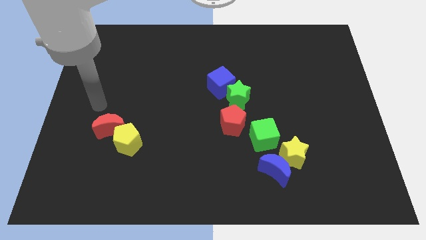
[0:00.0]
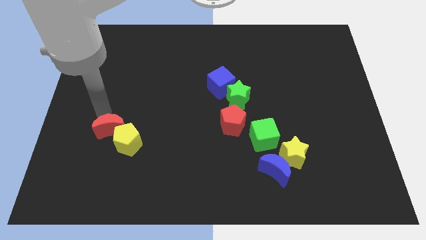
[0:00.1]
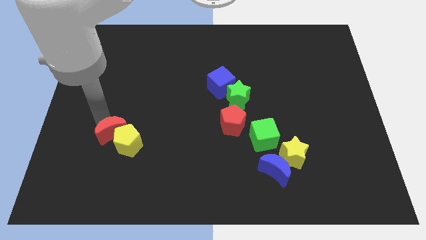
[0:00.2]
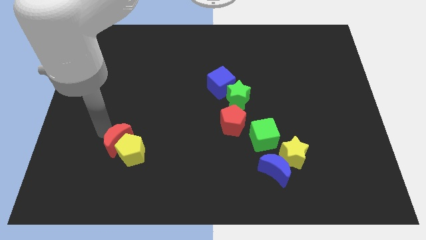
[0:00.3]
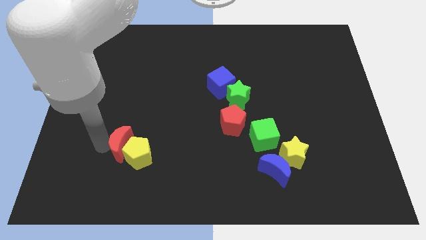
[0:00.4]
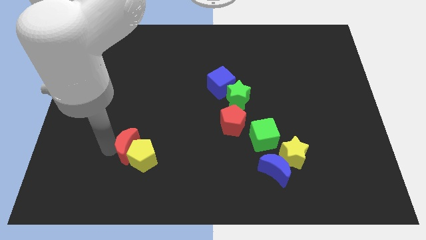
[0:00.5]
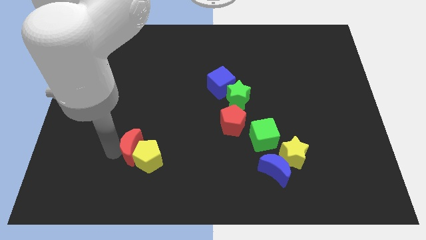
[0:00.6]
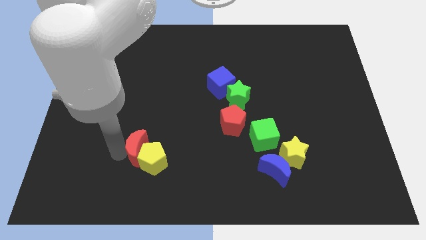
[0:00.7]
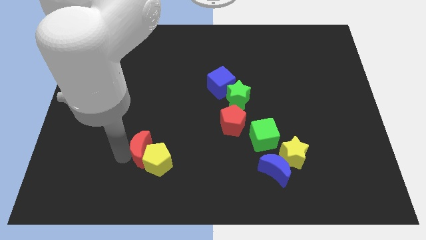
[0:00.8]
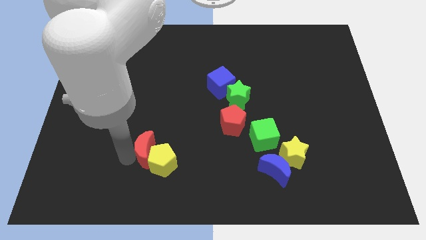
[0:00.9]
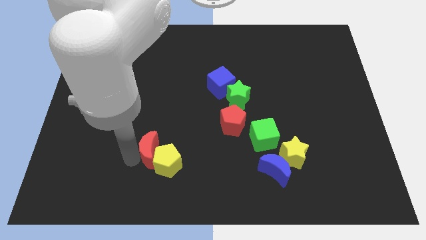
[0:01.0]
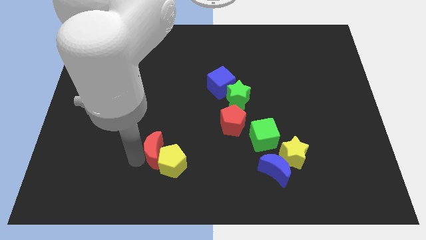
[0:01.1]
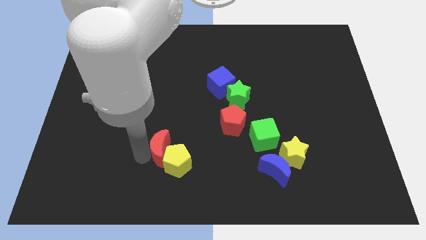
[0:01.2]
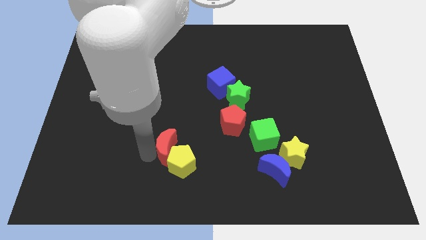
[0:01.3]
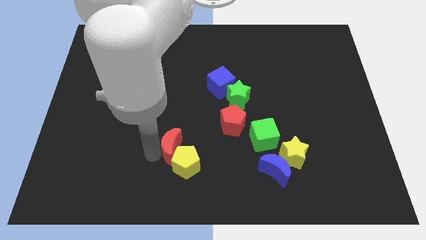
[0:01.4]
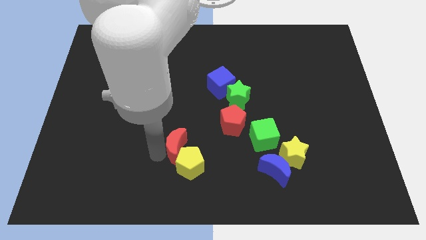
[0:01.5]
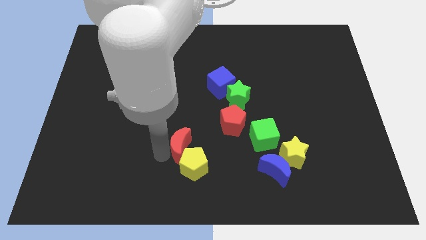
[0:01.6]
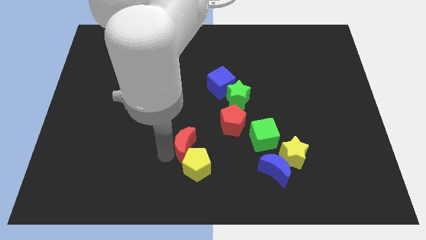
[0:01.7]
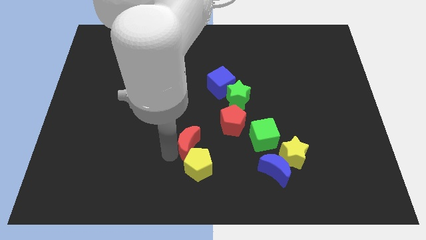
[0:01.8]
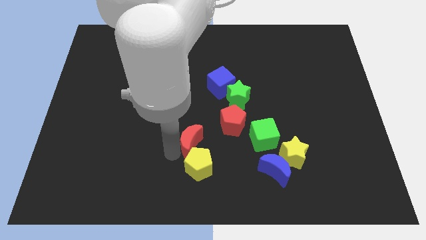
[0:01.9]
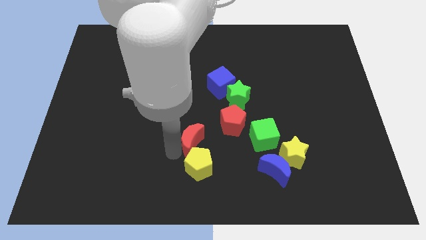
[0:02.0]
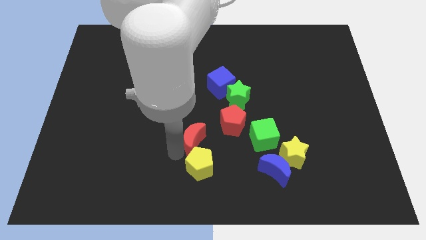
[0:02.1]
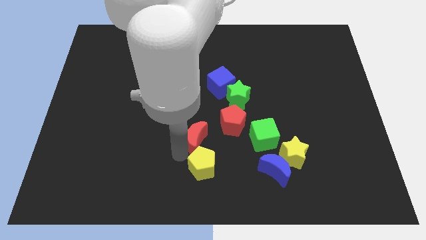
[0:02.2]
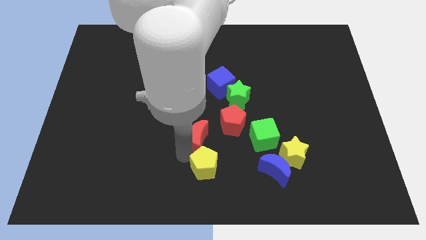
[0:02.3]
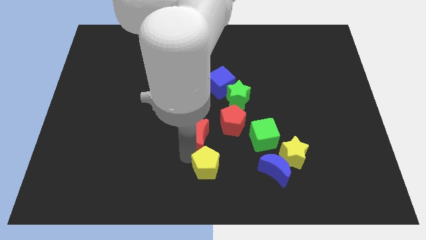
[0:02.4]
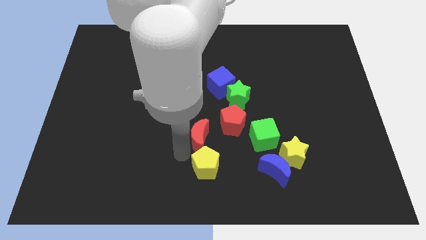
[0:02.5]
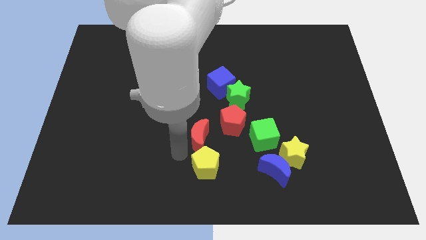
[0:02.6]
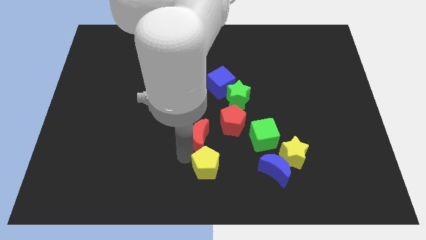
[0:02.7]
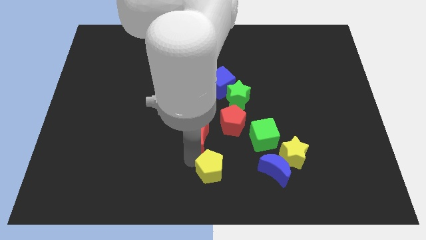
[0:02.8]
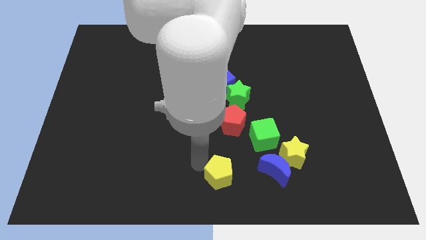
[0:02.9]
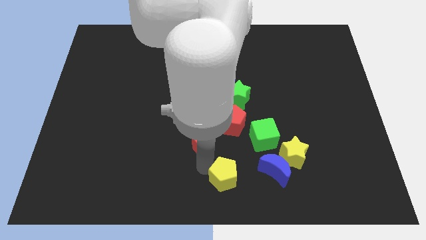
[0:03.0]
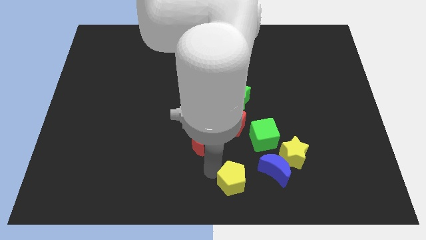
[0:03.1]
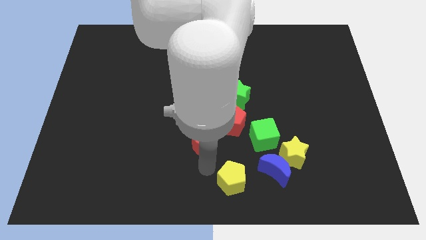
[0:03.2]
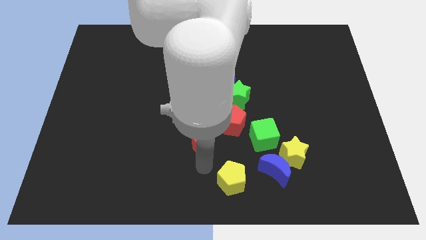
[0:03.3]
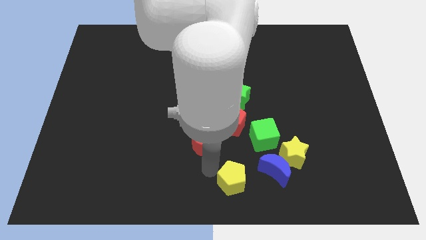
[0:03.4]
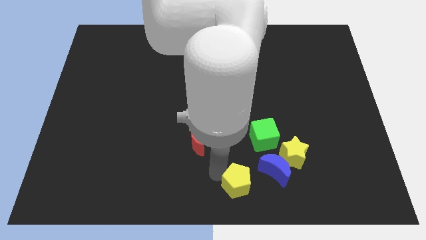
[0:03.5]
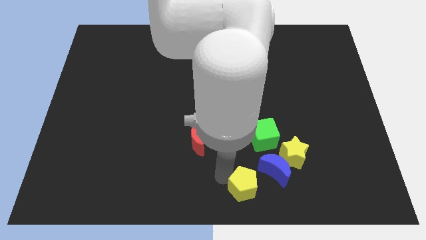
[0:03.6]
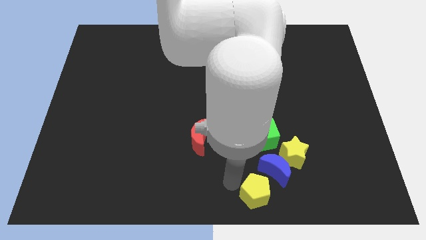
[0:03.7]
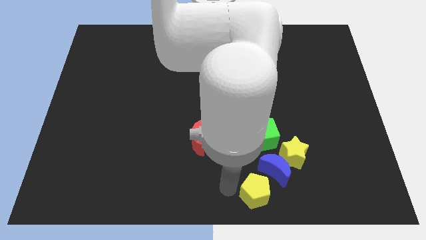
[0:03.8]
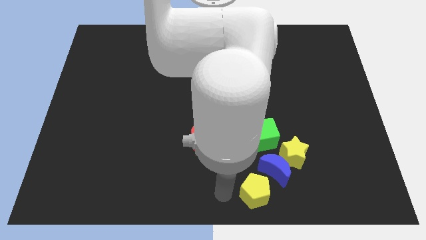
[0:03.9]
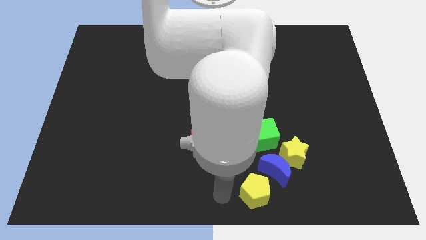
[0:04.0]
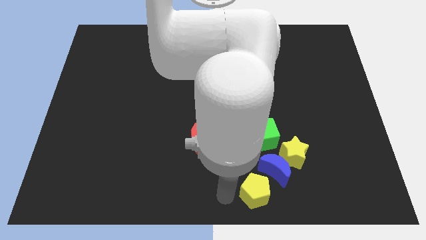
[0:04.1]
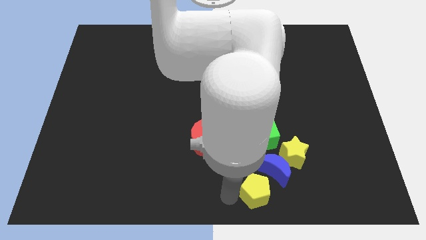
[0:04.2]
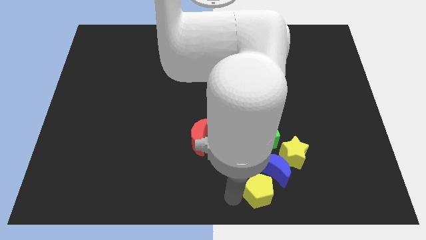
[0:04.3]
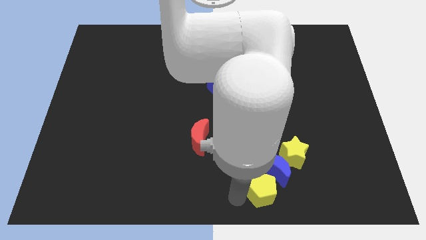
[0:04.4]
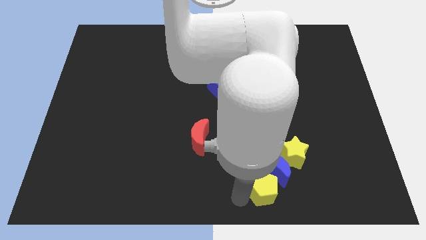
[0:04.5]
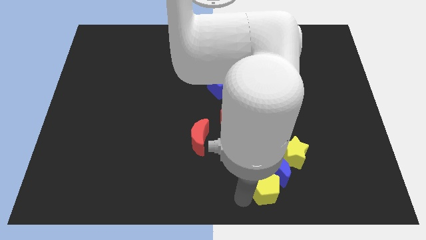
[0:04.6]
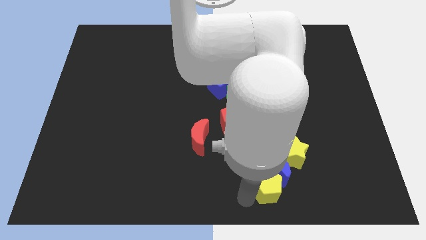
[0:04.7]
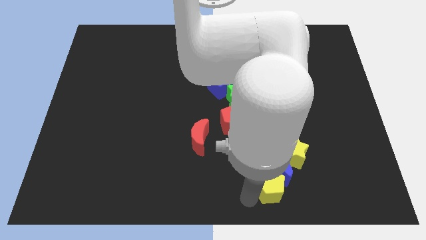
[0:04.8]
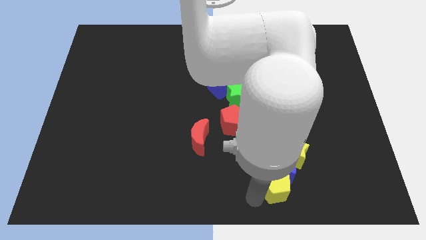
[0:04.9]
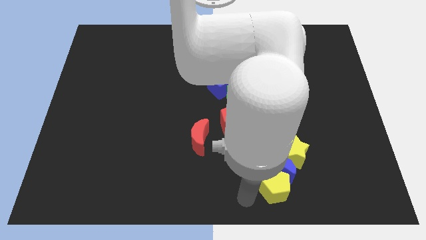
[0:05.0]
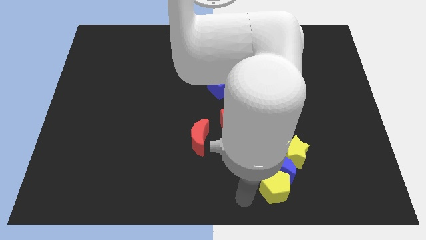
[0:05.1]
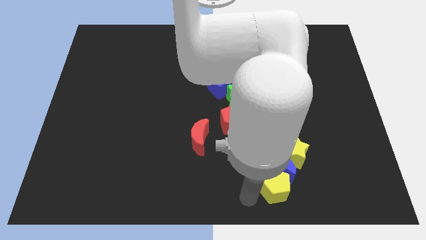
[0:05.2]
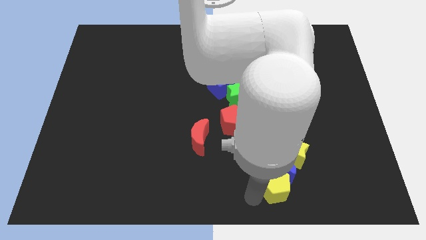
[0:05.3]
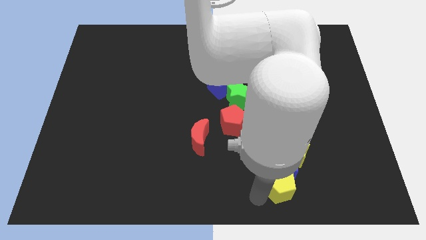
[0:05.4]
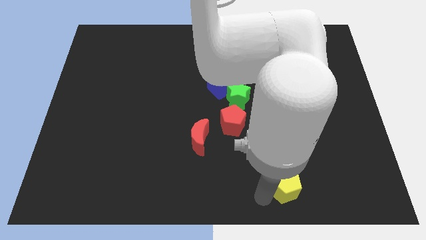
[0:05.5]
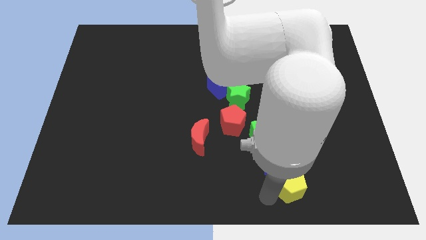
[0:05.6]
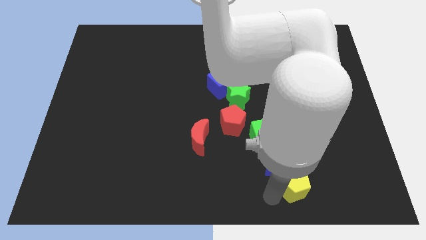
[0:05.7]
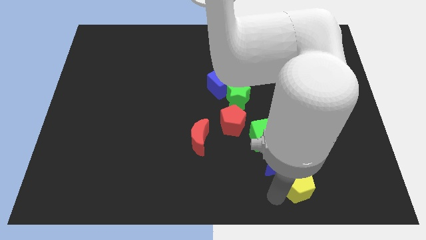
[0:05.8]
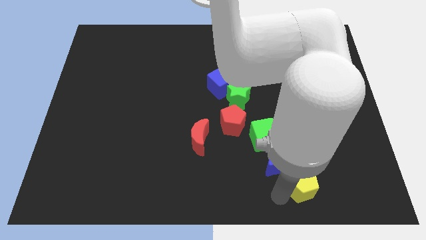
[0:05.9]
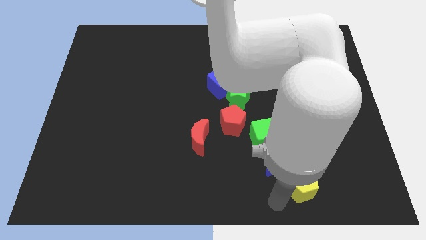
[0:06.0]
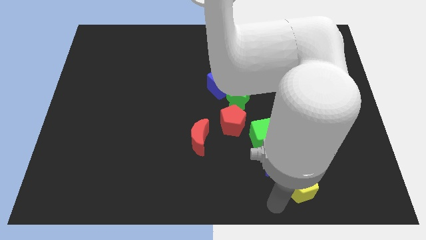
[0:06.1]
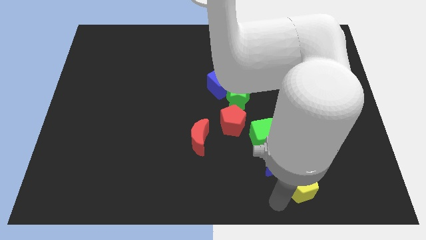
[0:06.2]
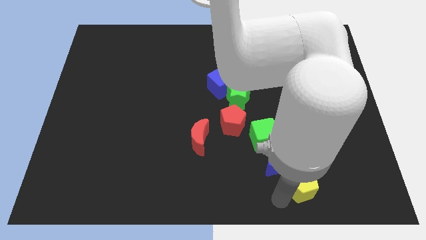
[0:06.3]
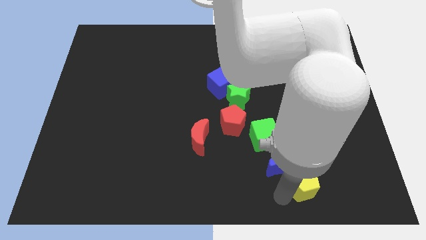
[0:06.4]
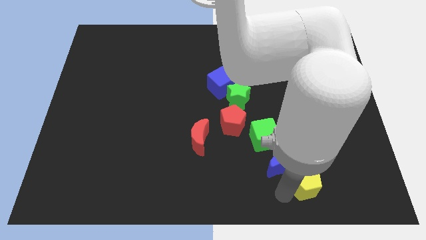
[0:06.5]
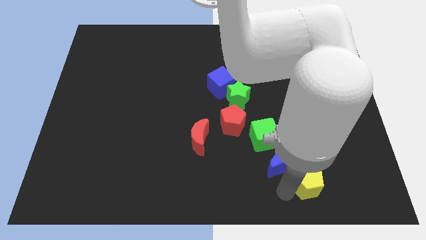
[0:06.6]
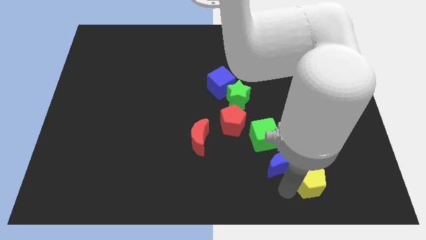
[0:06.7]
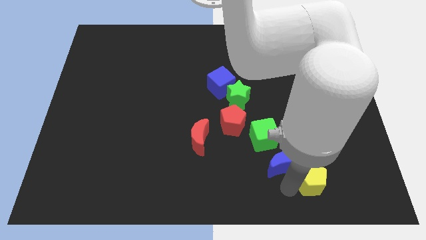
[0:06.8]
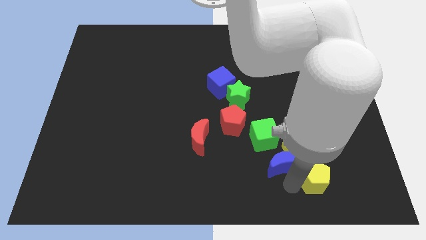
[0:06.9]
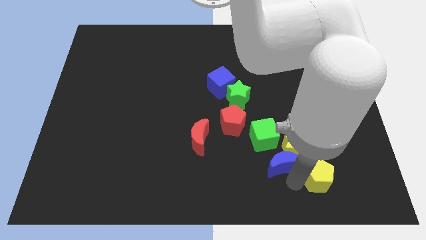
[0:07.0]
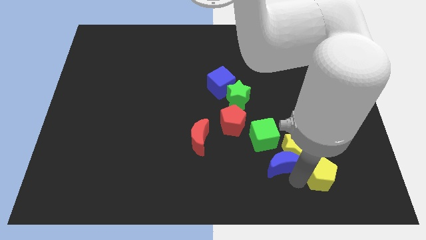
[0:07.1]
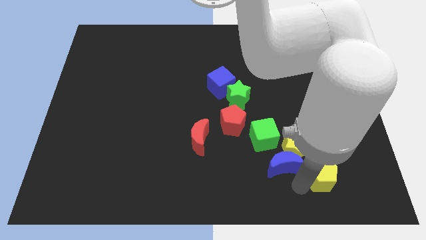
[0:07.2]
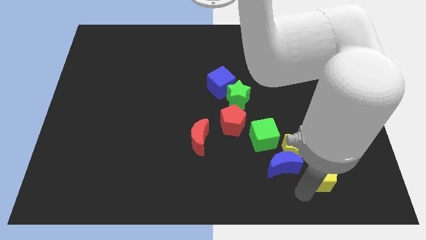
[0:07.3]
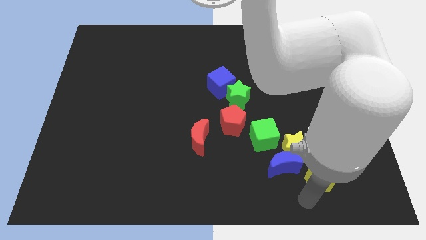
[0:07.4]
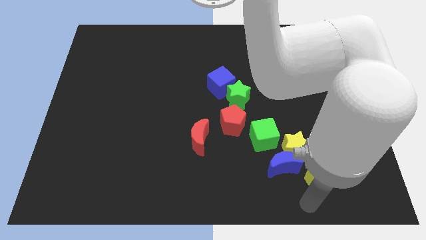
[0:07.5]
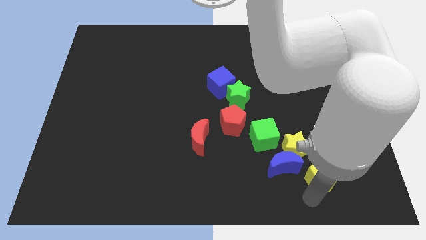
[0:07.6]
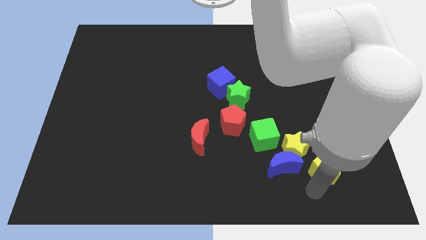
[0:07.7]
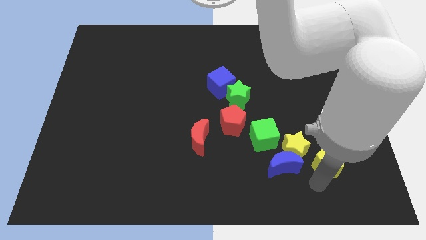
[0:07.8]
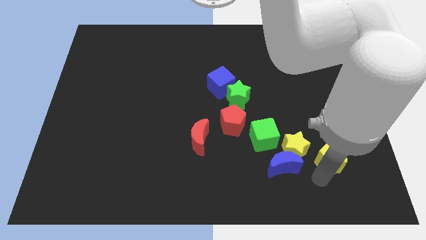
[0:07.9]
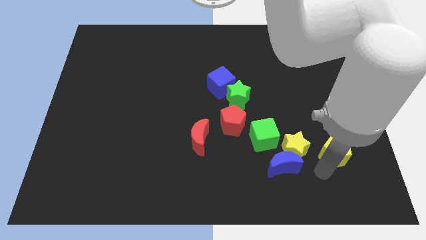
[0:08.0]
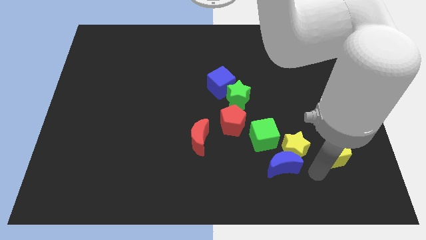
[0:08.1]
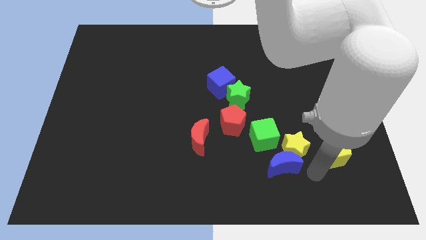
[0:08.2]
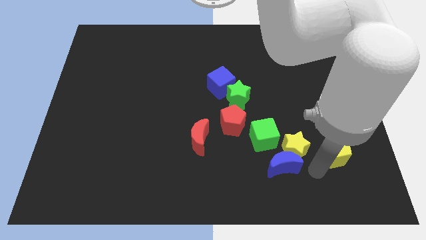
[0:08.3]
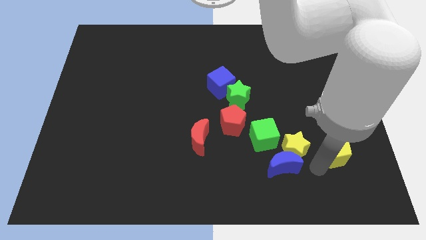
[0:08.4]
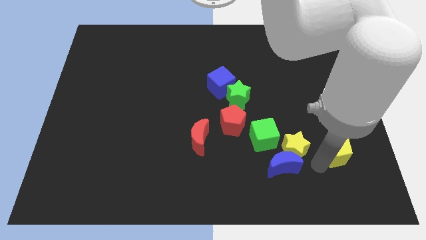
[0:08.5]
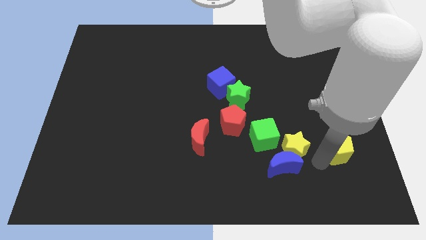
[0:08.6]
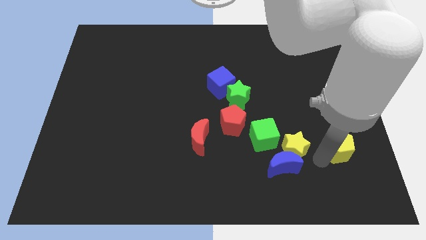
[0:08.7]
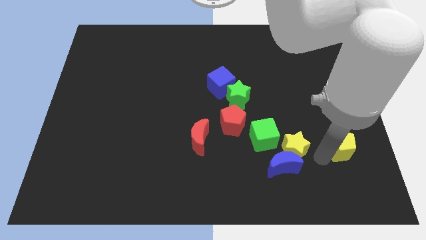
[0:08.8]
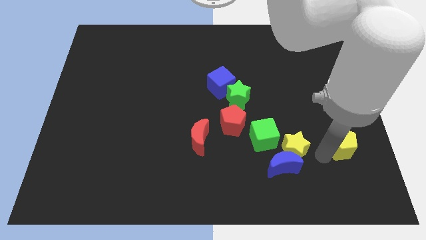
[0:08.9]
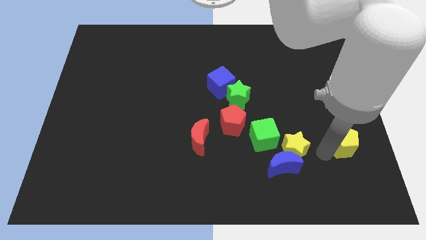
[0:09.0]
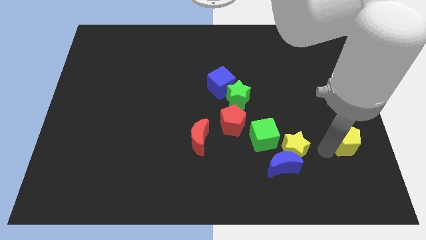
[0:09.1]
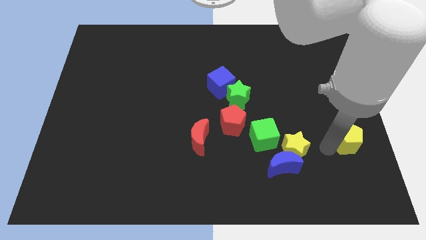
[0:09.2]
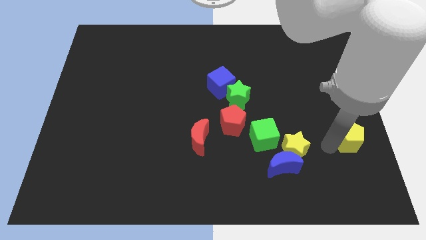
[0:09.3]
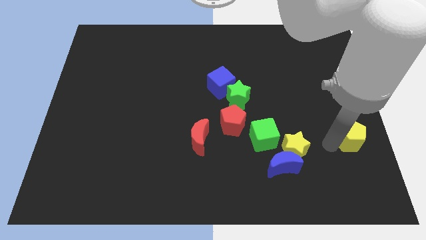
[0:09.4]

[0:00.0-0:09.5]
push the yellow pentagon to the center right
